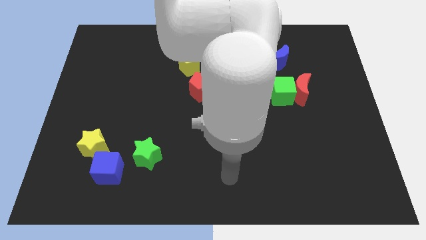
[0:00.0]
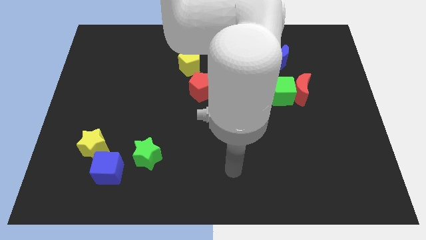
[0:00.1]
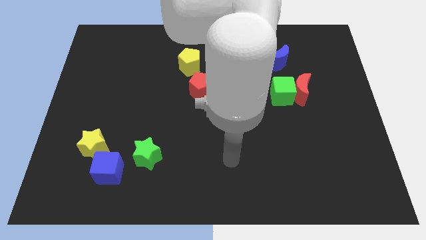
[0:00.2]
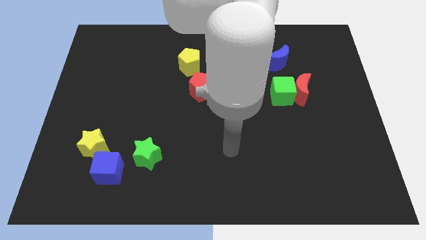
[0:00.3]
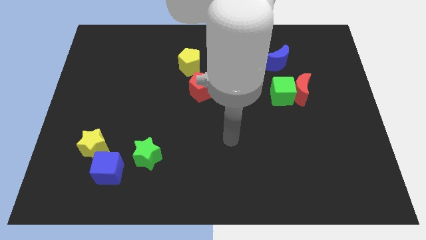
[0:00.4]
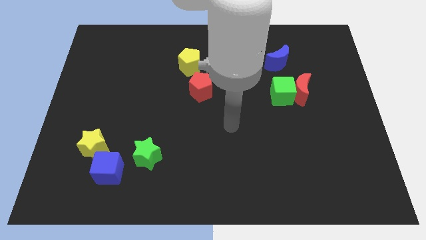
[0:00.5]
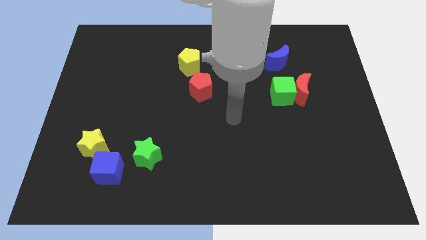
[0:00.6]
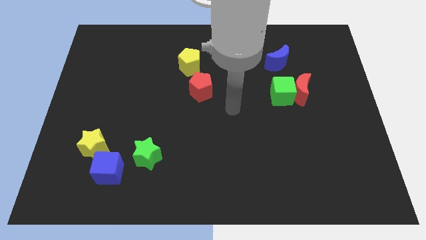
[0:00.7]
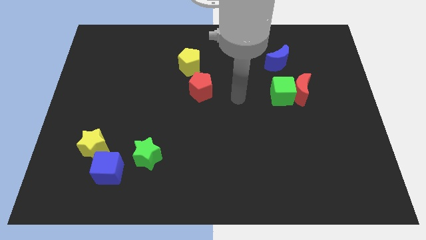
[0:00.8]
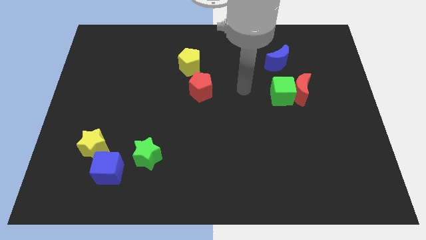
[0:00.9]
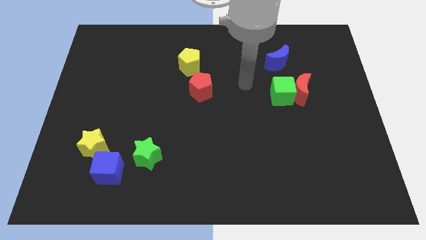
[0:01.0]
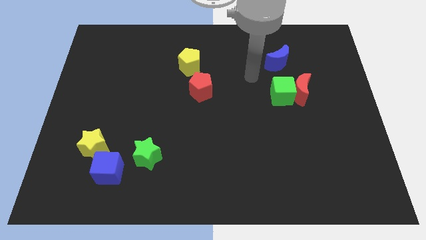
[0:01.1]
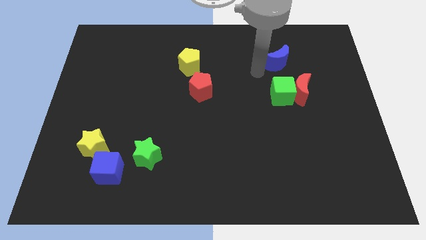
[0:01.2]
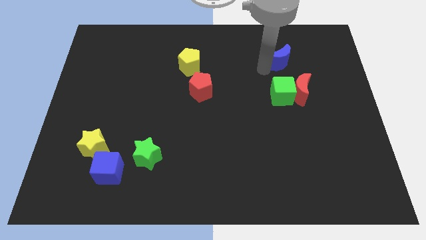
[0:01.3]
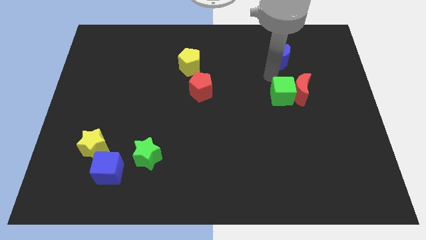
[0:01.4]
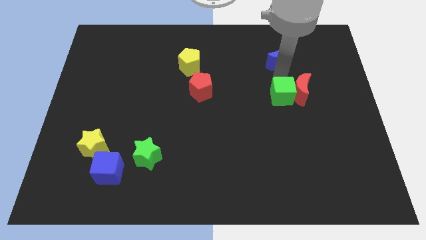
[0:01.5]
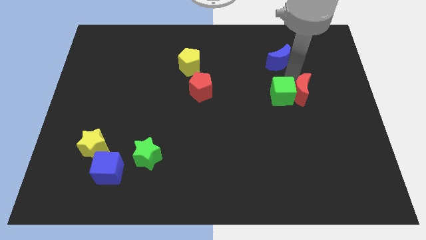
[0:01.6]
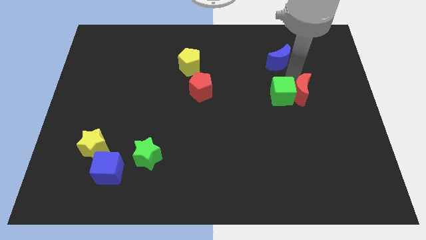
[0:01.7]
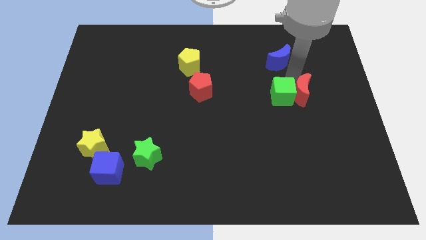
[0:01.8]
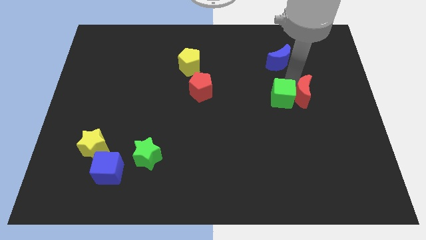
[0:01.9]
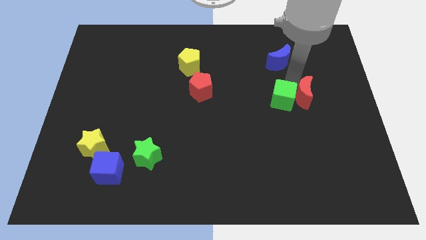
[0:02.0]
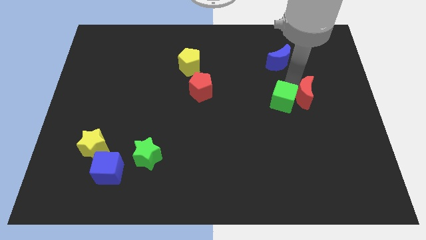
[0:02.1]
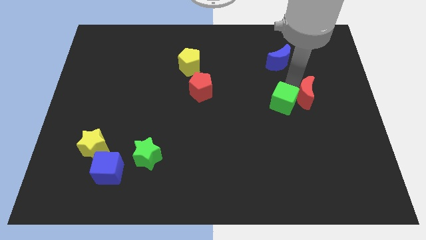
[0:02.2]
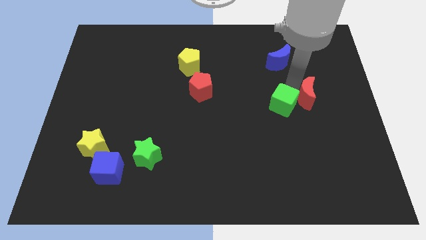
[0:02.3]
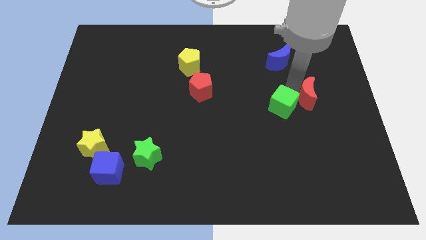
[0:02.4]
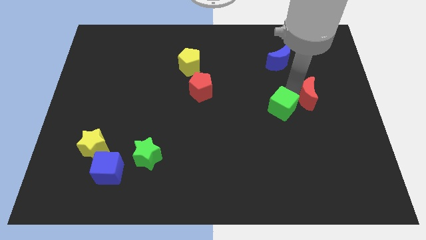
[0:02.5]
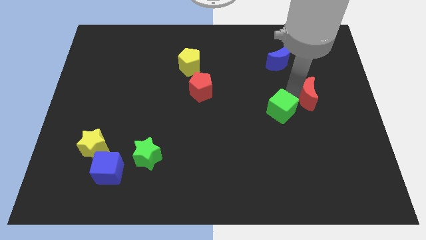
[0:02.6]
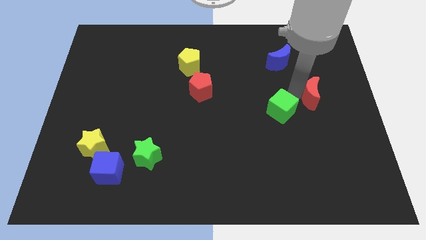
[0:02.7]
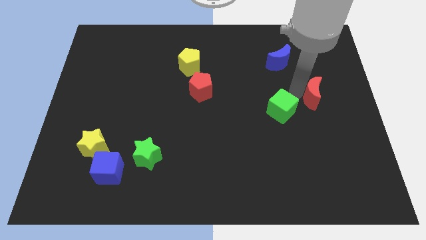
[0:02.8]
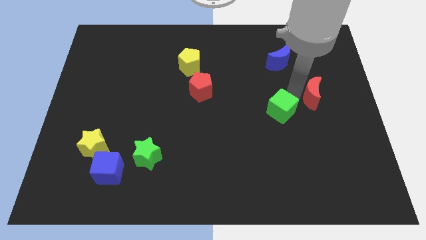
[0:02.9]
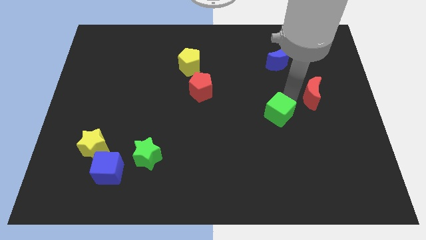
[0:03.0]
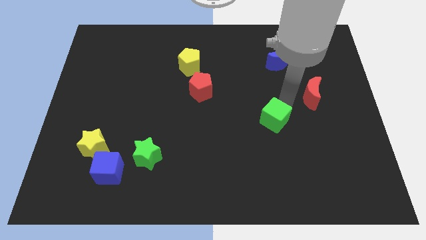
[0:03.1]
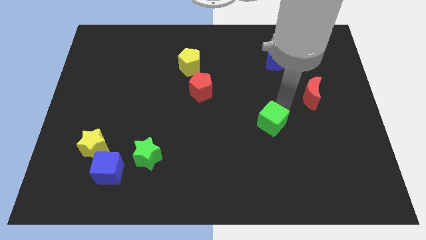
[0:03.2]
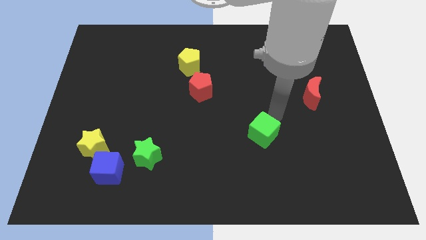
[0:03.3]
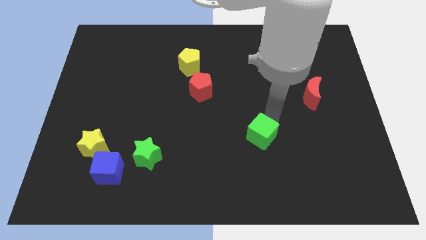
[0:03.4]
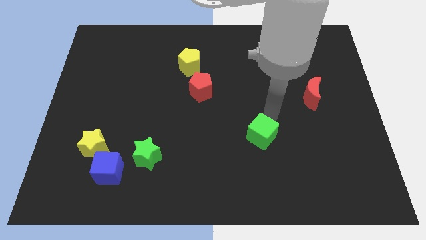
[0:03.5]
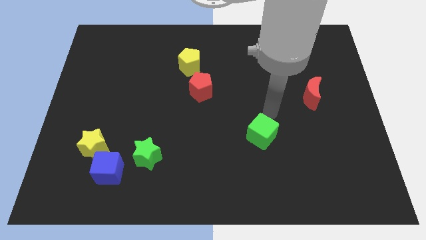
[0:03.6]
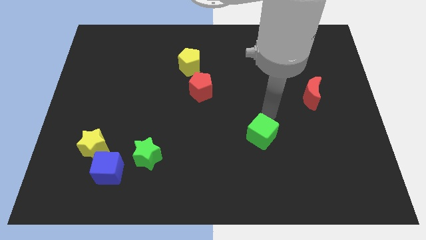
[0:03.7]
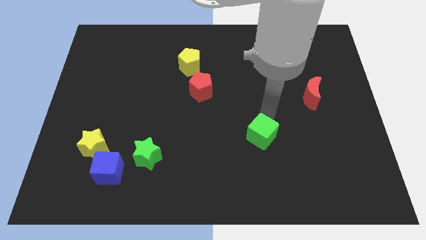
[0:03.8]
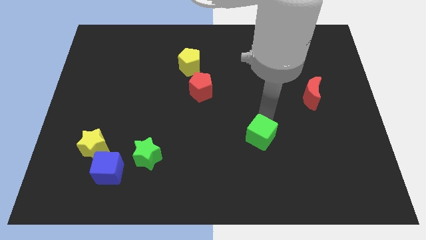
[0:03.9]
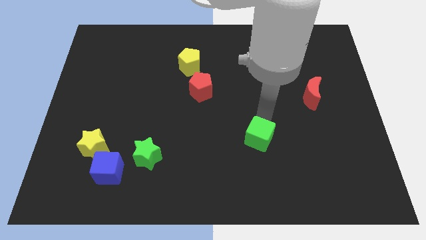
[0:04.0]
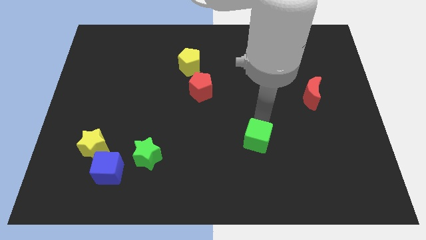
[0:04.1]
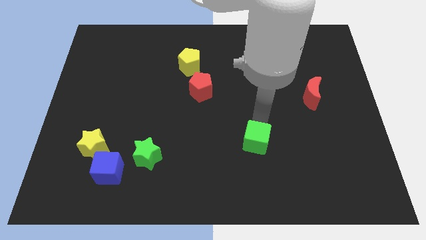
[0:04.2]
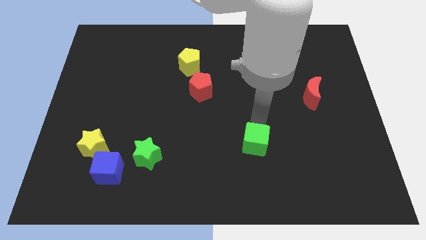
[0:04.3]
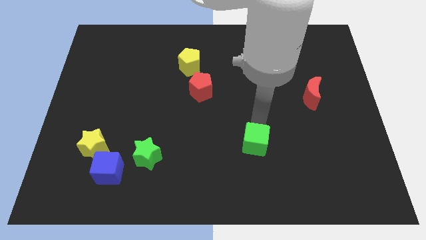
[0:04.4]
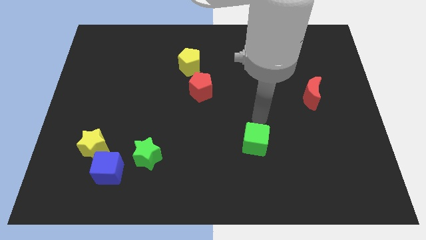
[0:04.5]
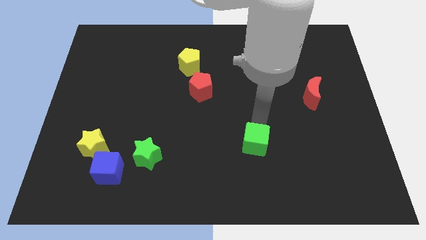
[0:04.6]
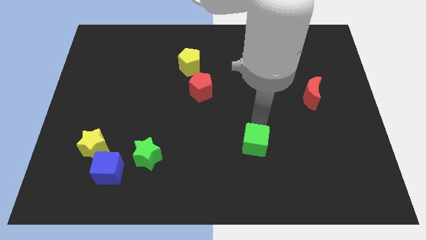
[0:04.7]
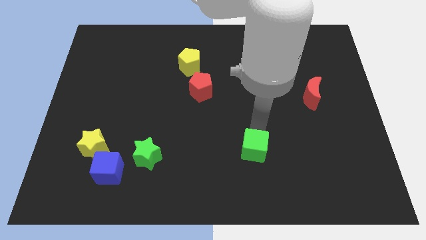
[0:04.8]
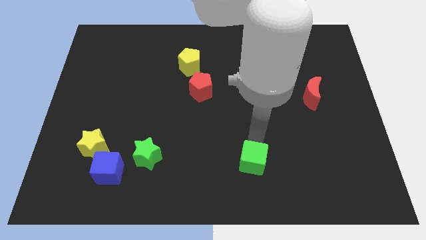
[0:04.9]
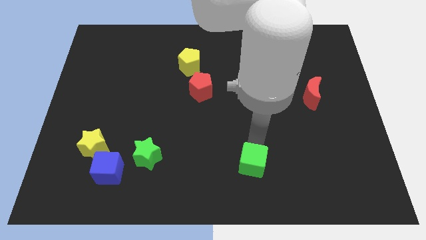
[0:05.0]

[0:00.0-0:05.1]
move the green cube to the bottom side

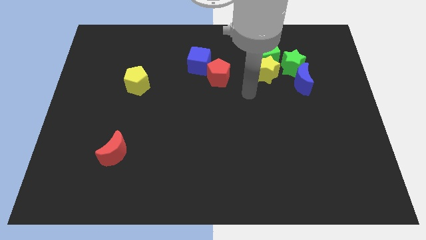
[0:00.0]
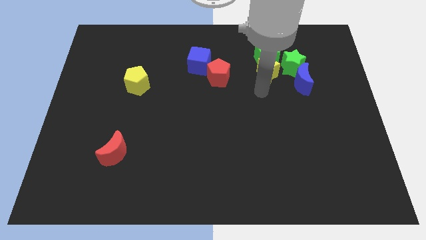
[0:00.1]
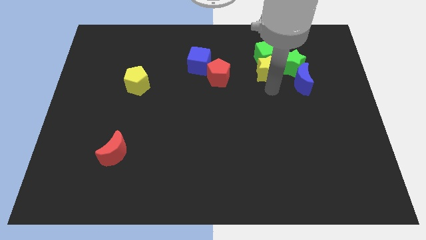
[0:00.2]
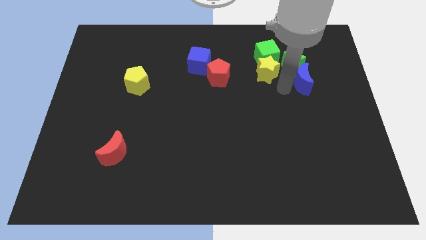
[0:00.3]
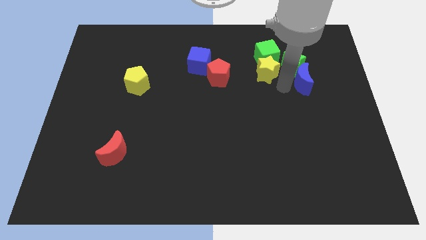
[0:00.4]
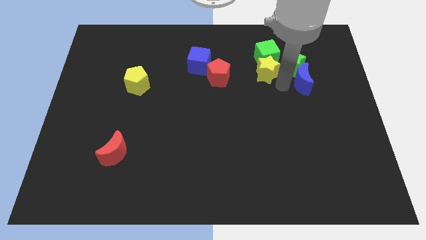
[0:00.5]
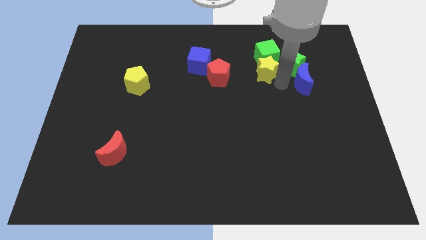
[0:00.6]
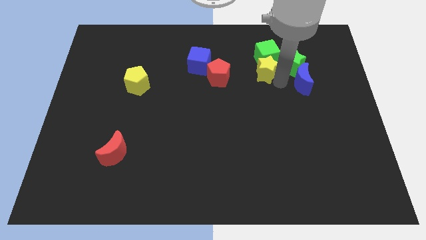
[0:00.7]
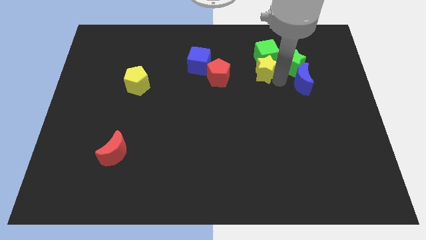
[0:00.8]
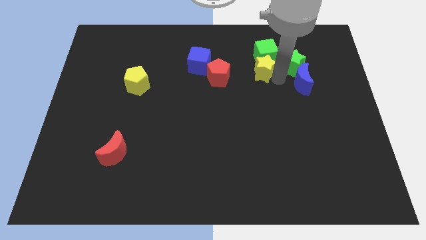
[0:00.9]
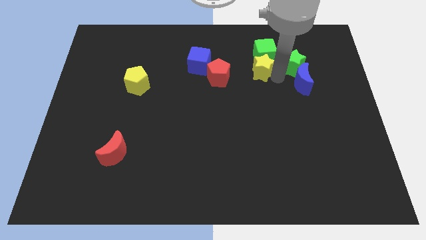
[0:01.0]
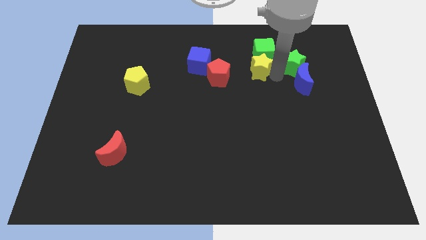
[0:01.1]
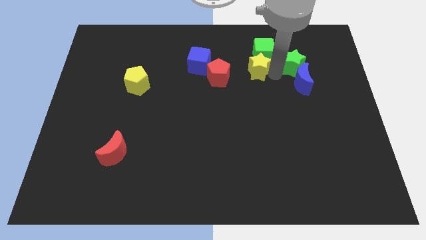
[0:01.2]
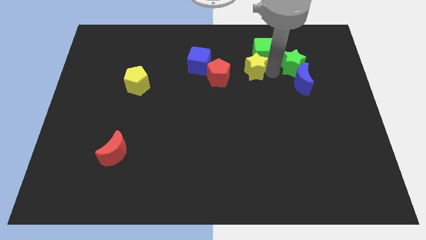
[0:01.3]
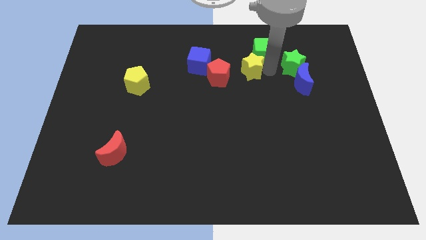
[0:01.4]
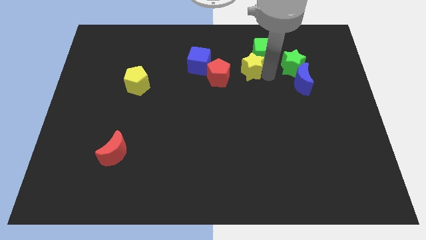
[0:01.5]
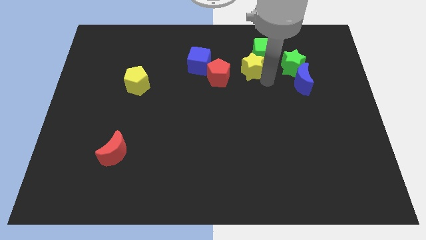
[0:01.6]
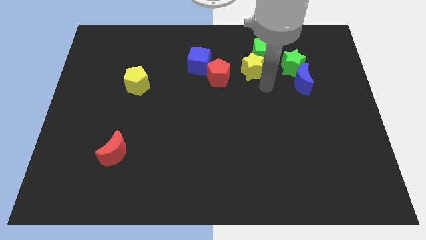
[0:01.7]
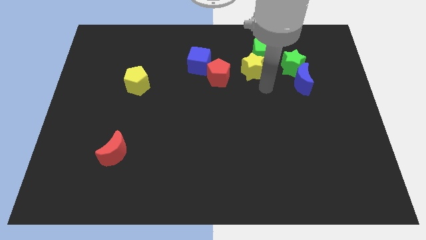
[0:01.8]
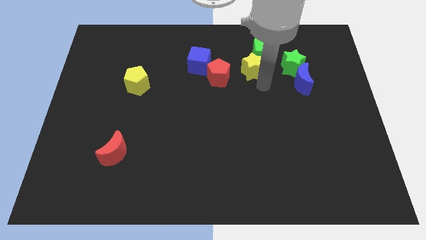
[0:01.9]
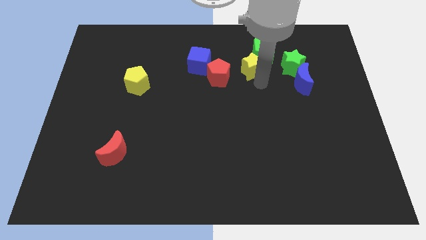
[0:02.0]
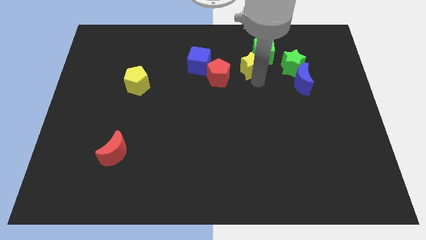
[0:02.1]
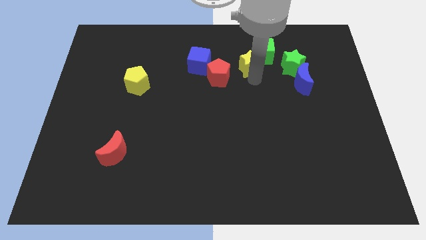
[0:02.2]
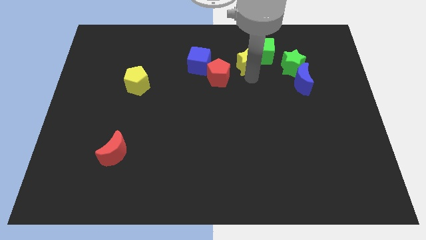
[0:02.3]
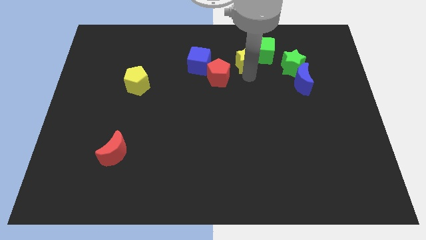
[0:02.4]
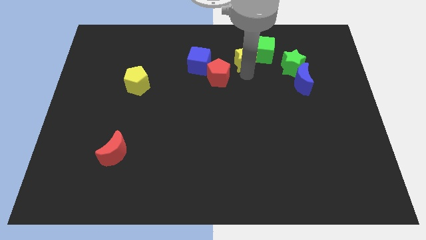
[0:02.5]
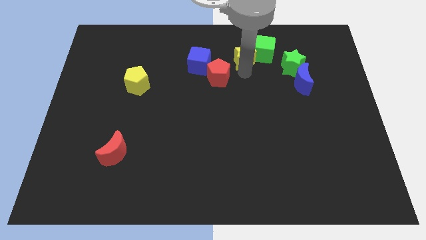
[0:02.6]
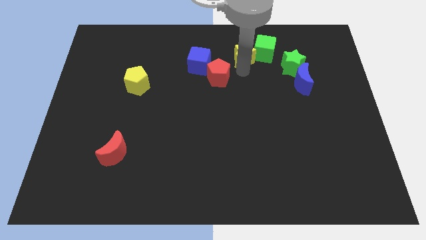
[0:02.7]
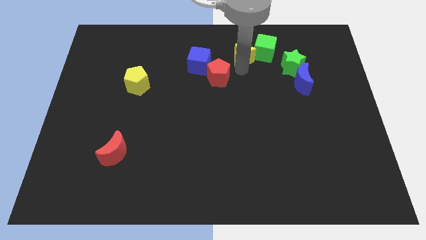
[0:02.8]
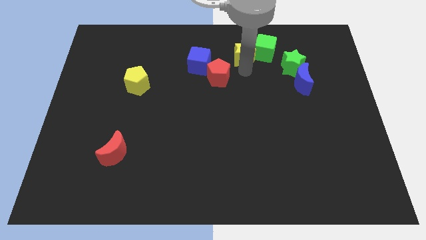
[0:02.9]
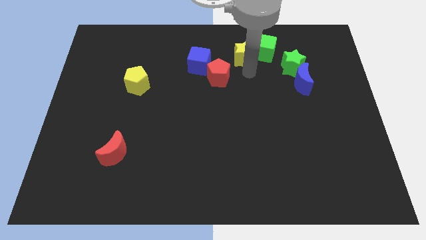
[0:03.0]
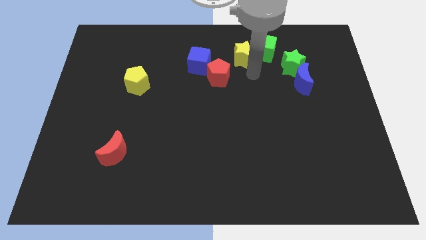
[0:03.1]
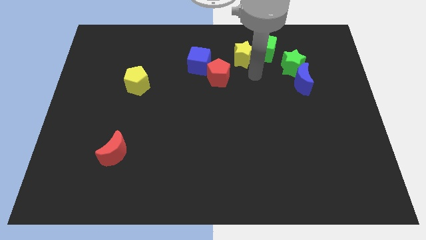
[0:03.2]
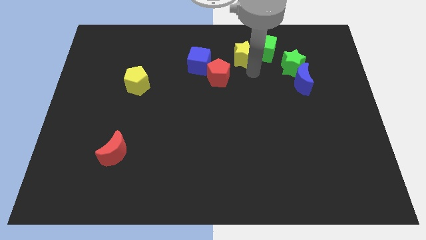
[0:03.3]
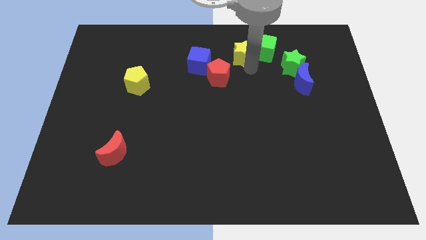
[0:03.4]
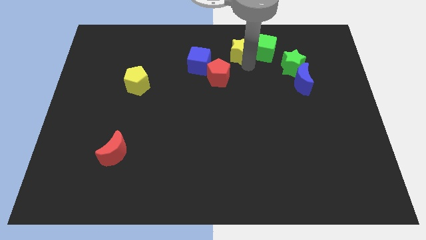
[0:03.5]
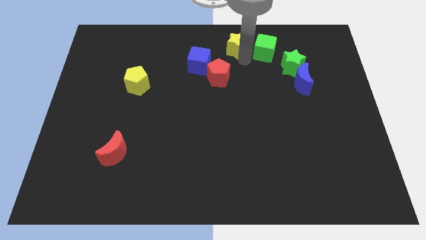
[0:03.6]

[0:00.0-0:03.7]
push the yellow star to the top side
